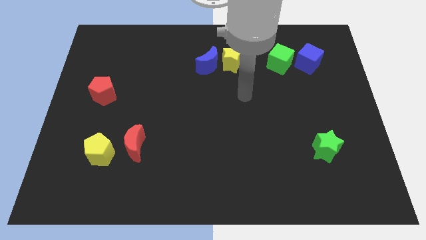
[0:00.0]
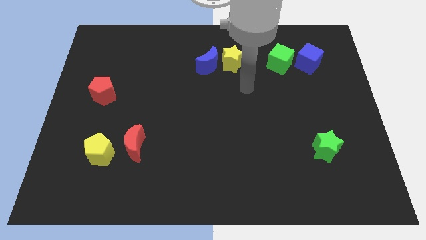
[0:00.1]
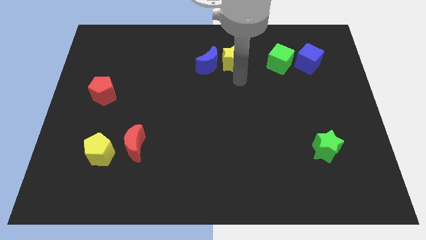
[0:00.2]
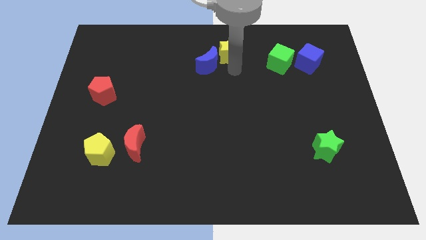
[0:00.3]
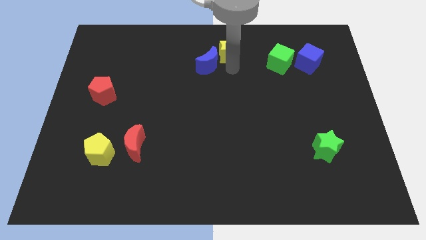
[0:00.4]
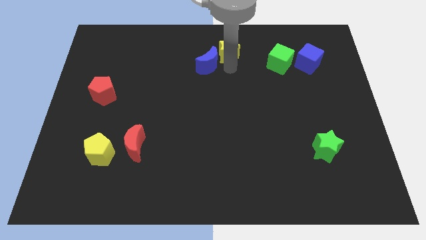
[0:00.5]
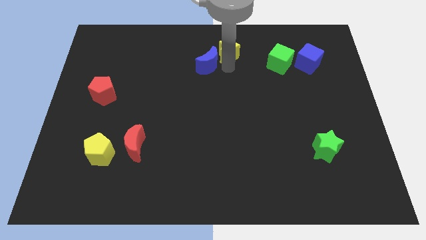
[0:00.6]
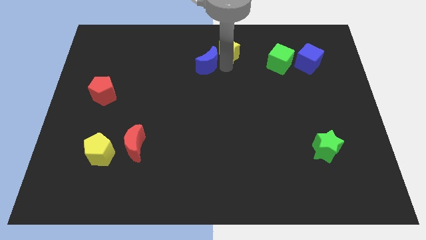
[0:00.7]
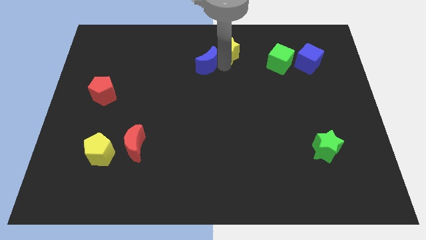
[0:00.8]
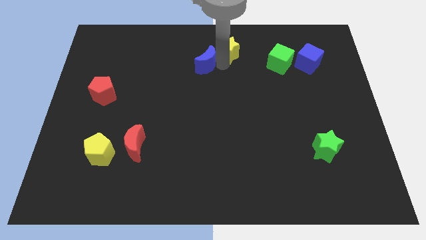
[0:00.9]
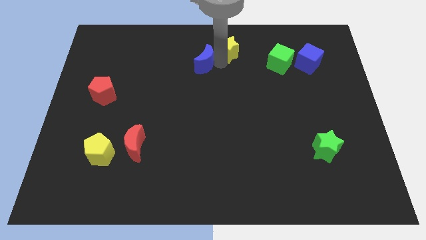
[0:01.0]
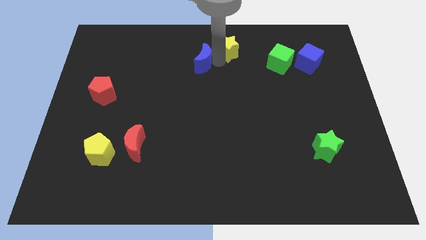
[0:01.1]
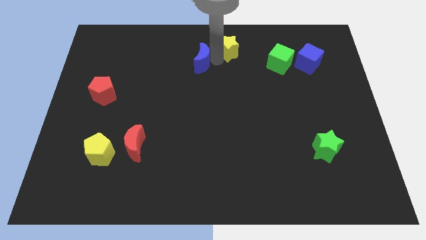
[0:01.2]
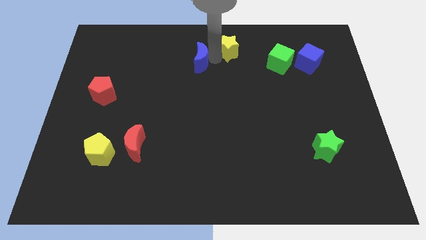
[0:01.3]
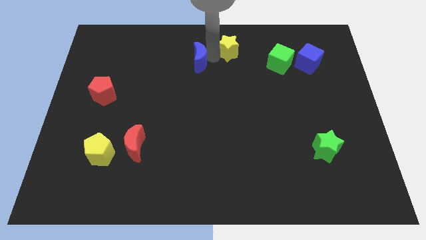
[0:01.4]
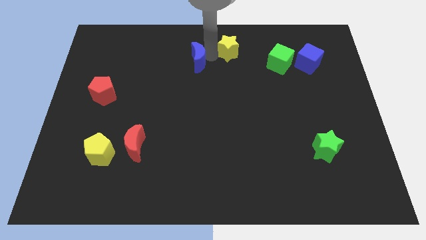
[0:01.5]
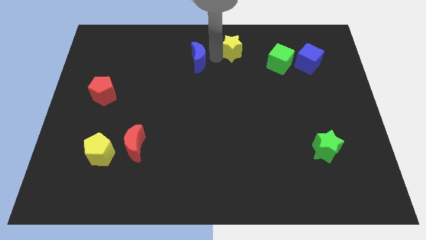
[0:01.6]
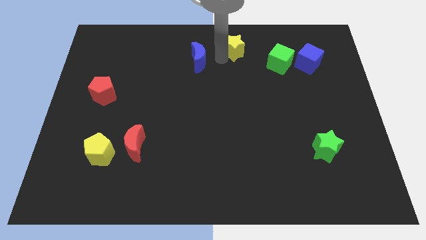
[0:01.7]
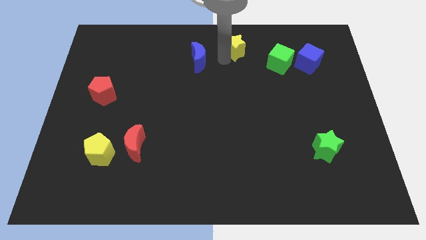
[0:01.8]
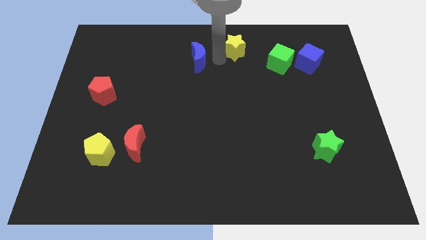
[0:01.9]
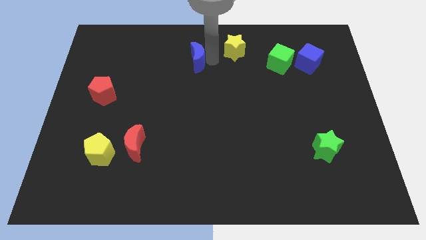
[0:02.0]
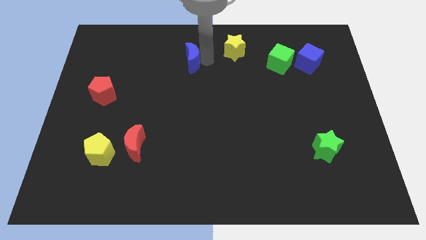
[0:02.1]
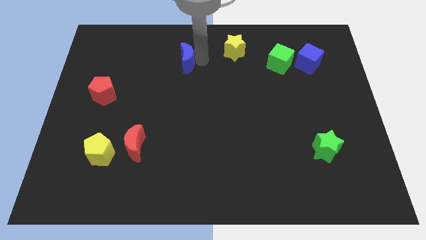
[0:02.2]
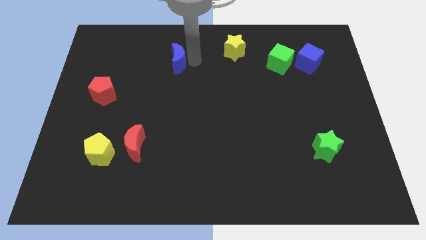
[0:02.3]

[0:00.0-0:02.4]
slightly push the blue moon left

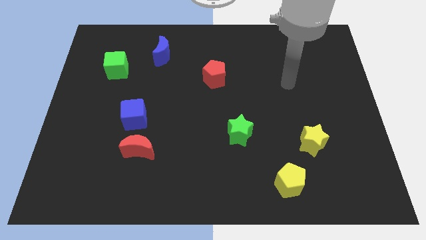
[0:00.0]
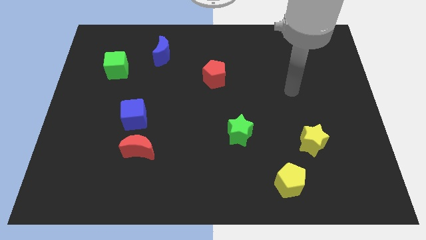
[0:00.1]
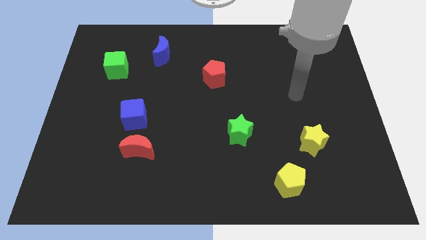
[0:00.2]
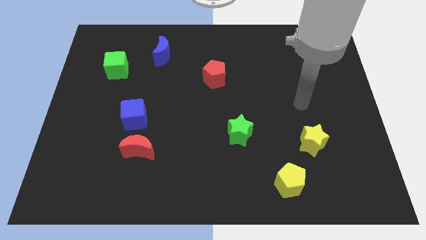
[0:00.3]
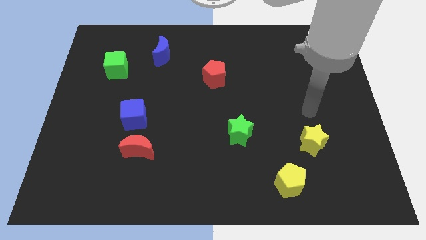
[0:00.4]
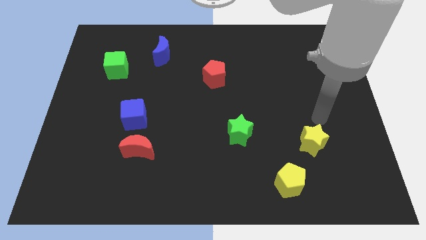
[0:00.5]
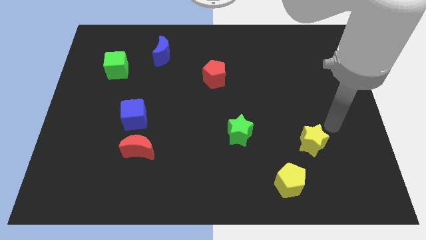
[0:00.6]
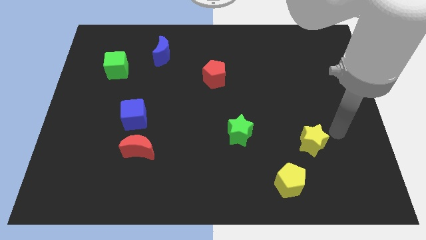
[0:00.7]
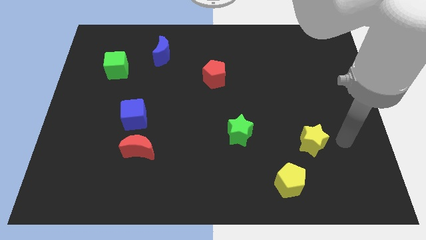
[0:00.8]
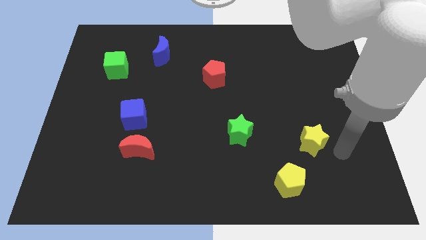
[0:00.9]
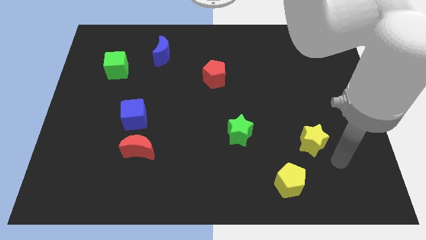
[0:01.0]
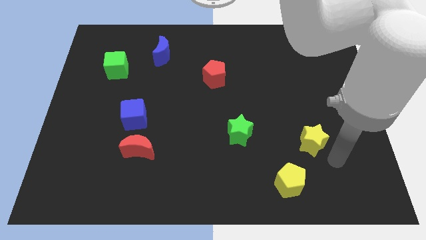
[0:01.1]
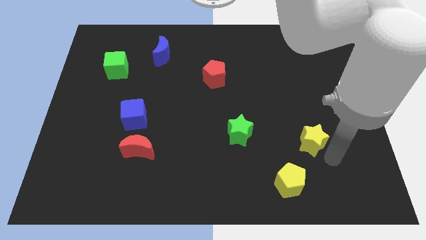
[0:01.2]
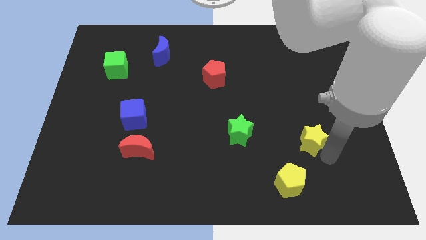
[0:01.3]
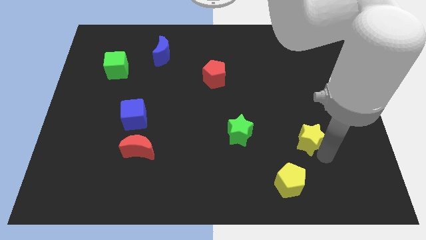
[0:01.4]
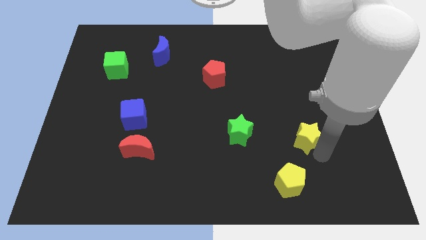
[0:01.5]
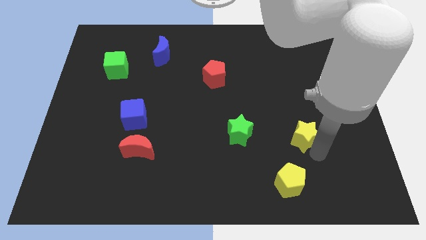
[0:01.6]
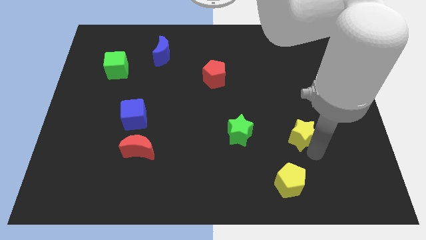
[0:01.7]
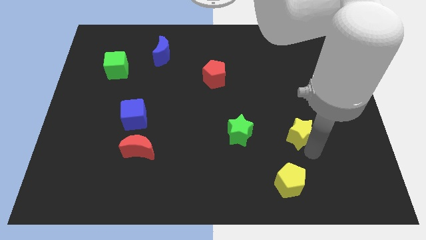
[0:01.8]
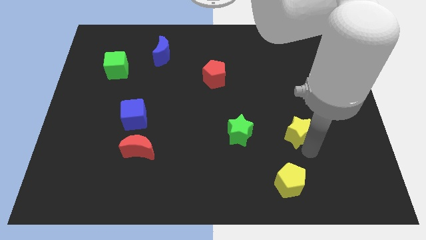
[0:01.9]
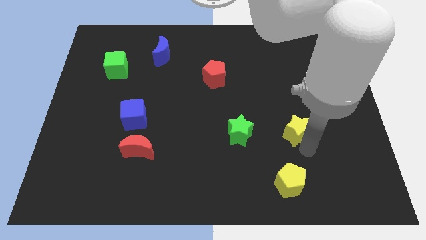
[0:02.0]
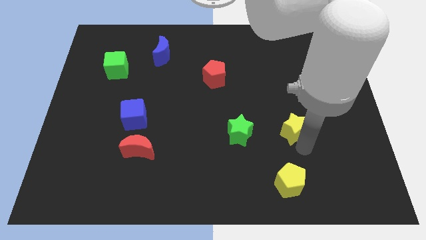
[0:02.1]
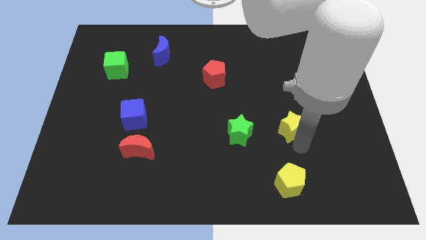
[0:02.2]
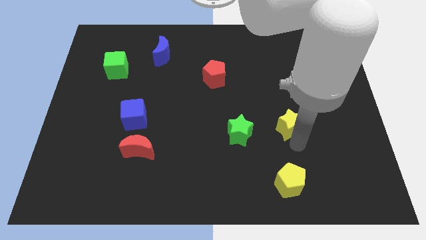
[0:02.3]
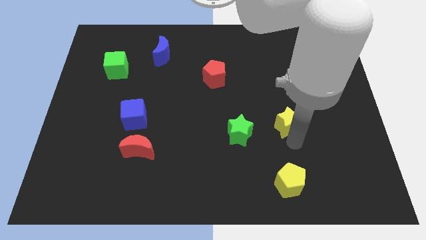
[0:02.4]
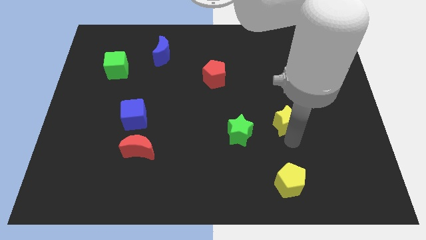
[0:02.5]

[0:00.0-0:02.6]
move the yellow star upwards and to the left diagonally somewhat

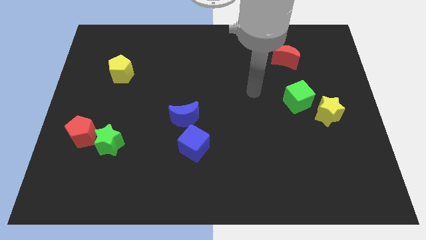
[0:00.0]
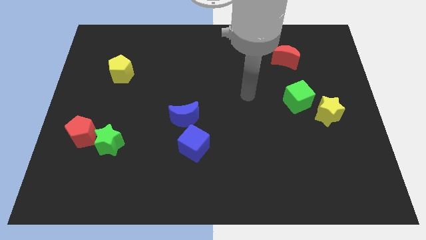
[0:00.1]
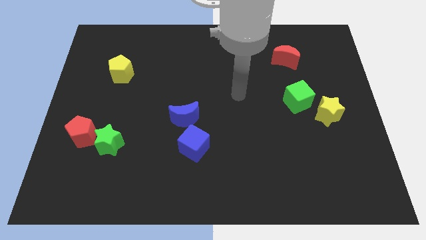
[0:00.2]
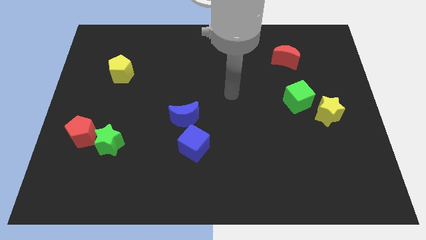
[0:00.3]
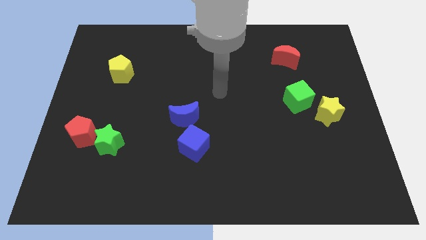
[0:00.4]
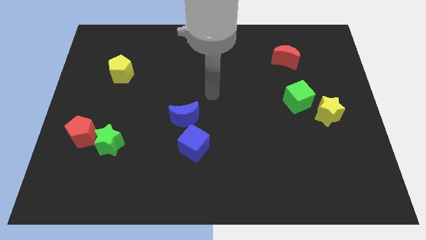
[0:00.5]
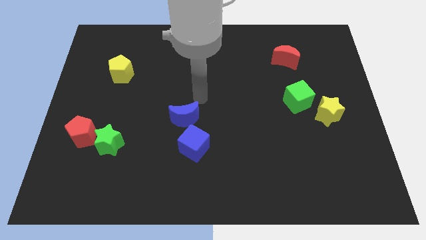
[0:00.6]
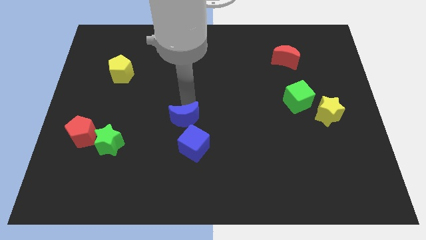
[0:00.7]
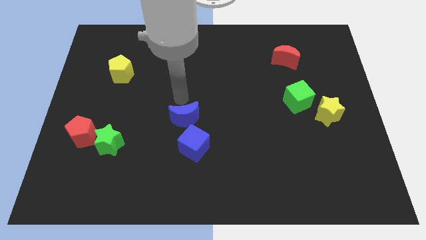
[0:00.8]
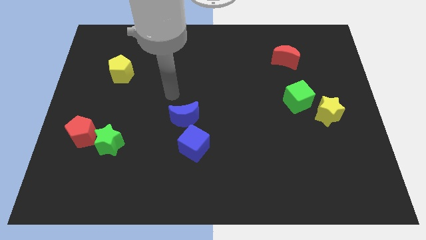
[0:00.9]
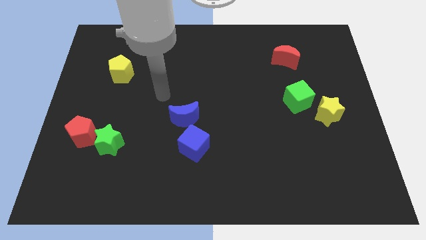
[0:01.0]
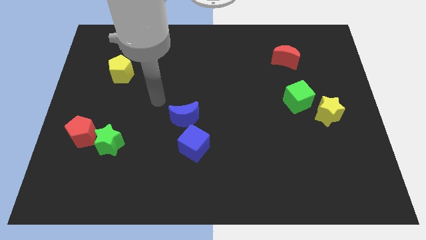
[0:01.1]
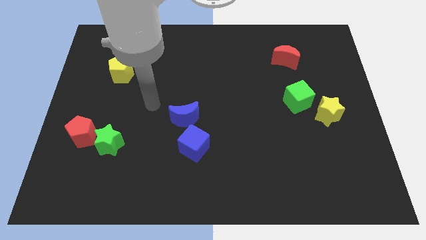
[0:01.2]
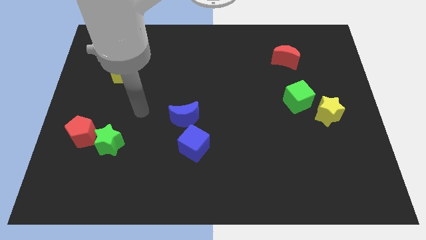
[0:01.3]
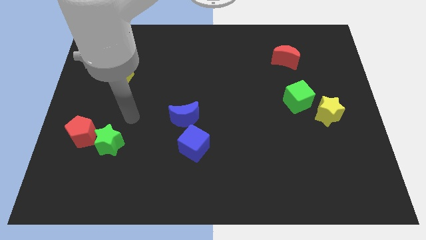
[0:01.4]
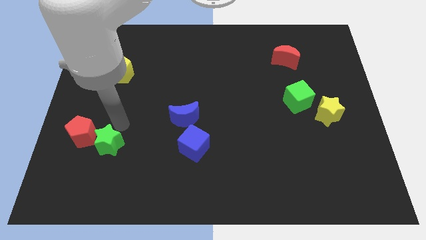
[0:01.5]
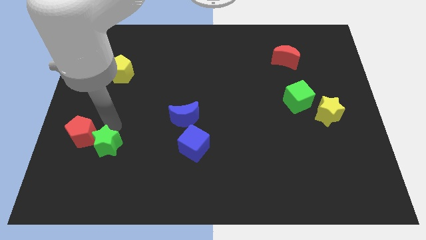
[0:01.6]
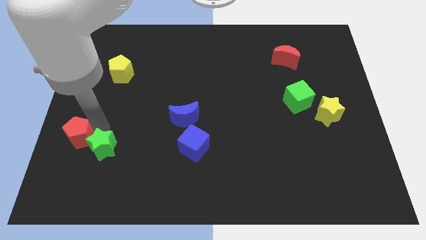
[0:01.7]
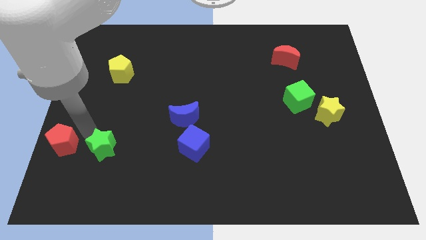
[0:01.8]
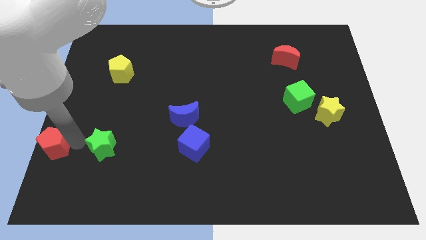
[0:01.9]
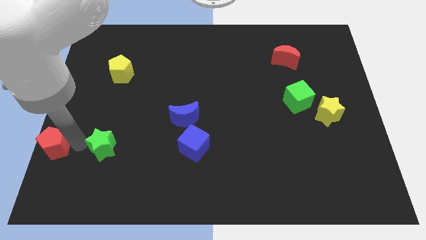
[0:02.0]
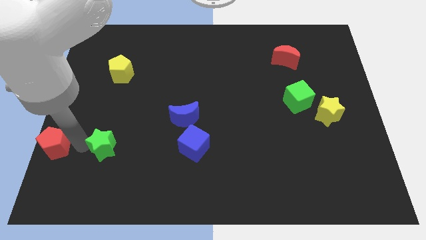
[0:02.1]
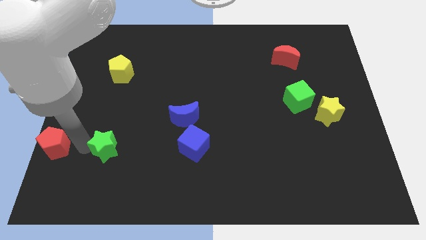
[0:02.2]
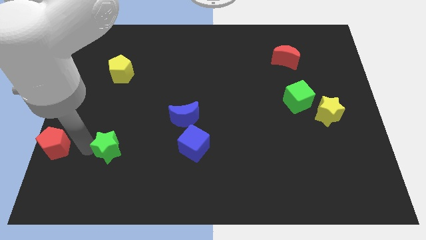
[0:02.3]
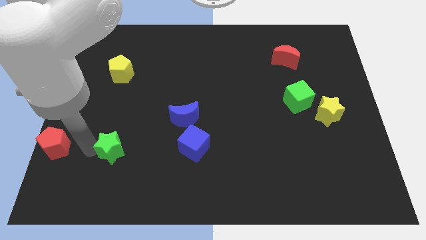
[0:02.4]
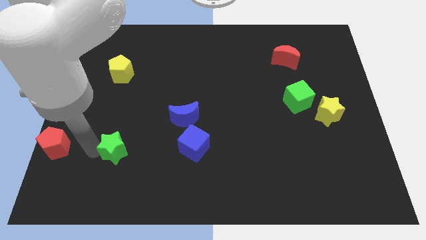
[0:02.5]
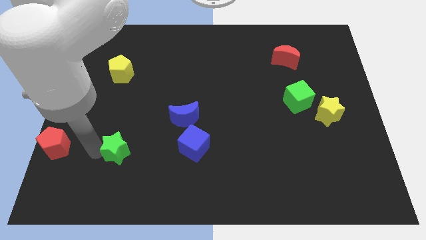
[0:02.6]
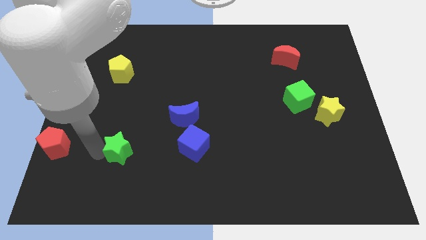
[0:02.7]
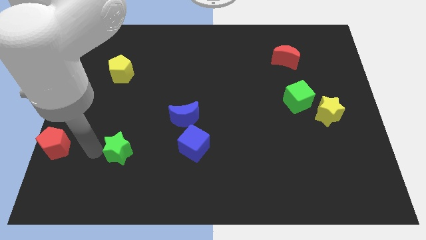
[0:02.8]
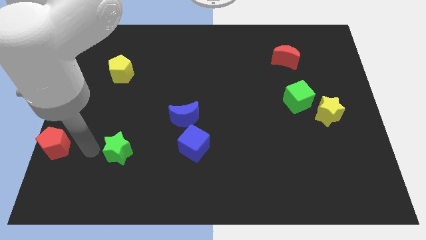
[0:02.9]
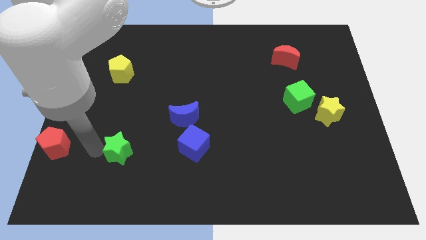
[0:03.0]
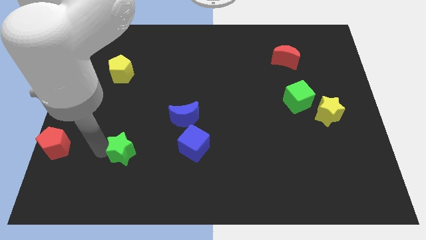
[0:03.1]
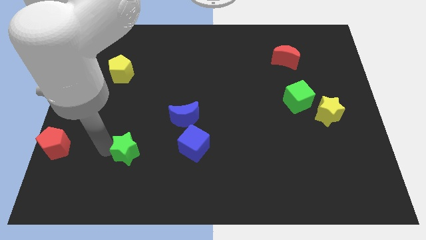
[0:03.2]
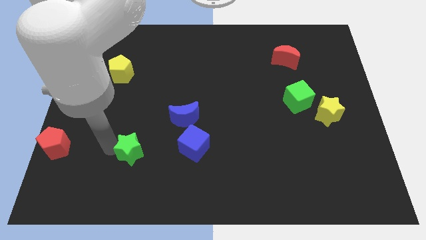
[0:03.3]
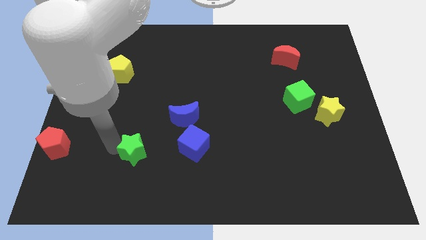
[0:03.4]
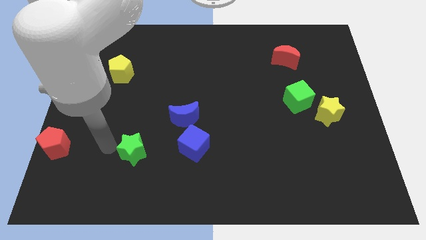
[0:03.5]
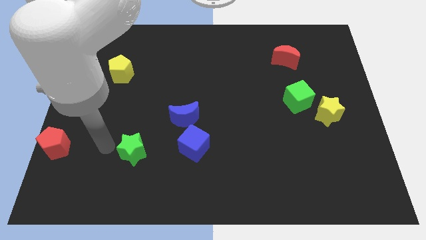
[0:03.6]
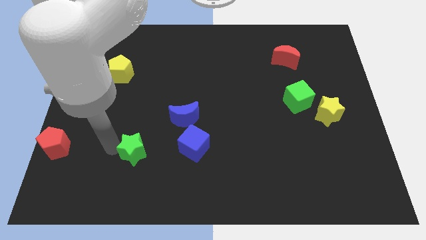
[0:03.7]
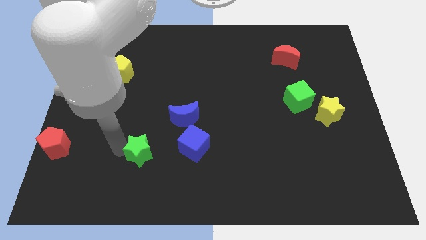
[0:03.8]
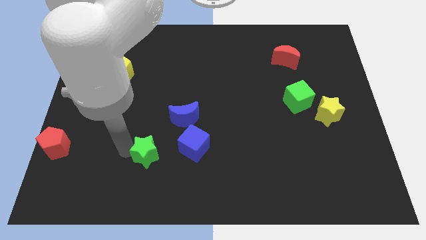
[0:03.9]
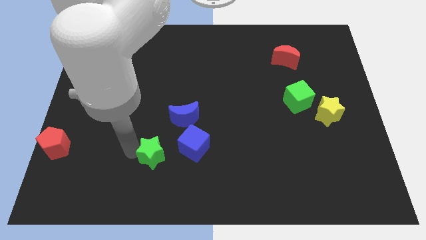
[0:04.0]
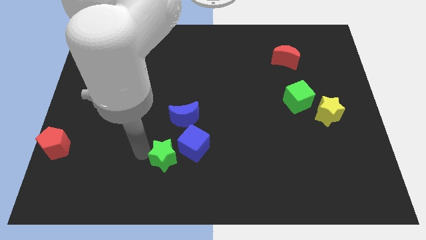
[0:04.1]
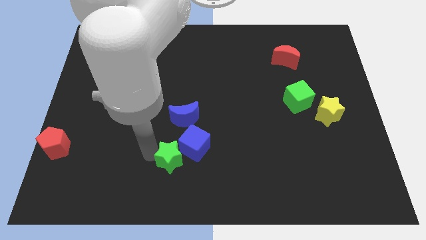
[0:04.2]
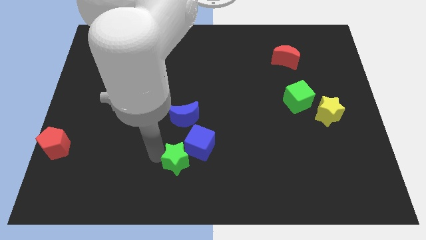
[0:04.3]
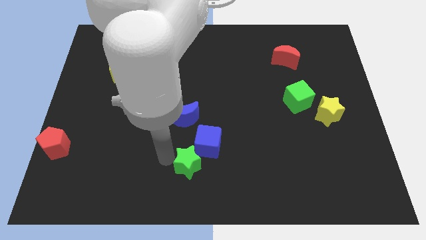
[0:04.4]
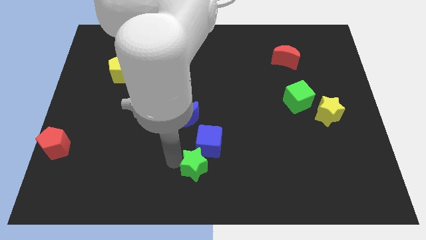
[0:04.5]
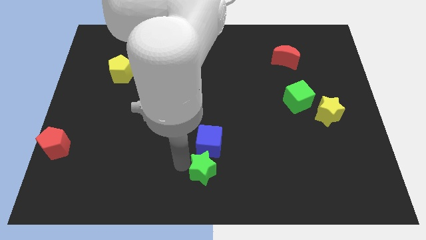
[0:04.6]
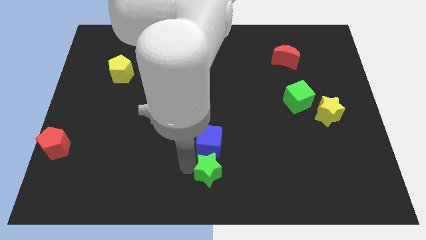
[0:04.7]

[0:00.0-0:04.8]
push the green star to the right
